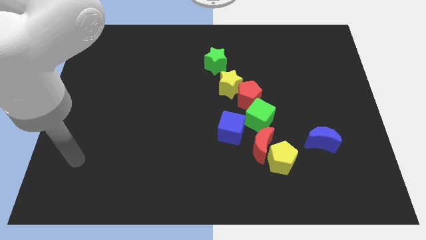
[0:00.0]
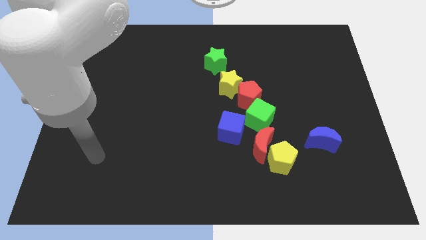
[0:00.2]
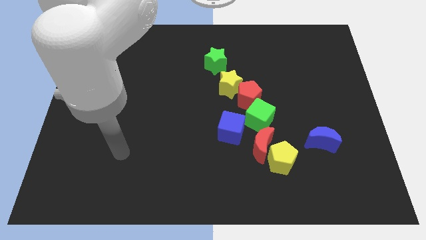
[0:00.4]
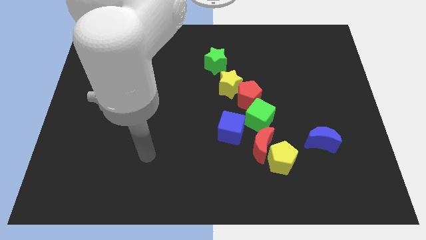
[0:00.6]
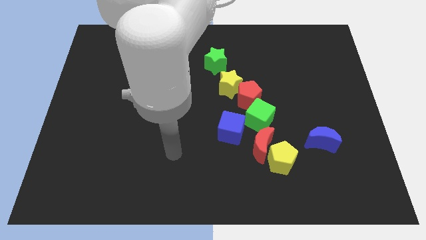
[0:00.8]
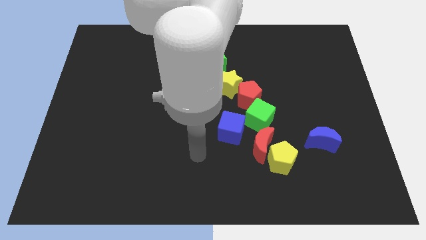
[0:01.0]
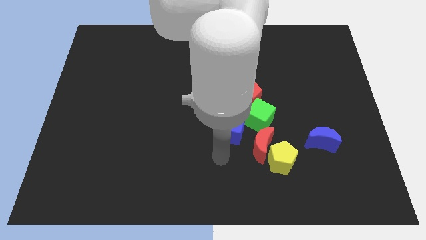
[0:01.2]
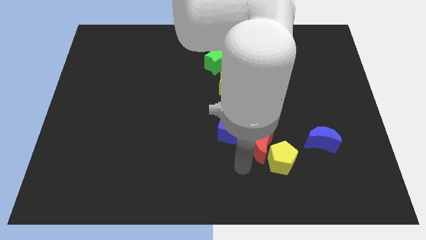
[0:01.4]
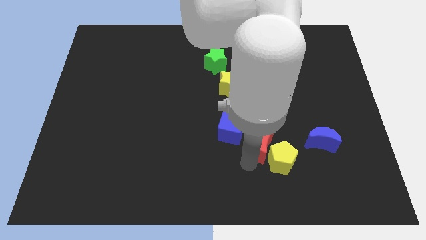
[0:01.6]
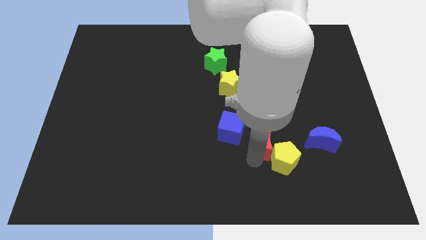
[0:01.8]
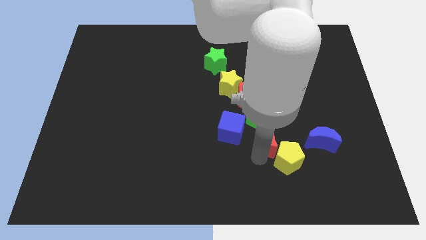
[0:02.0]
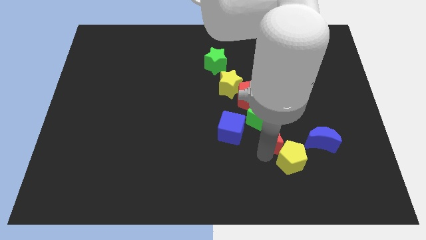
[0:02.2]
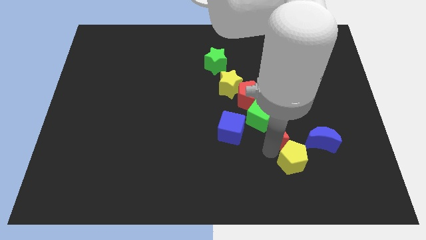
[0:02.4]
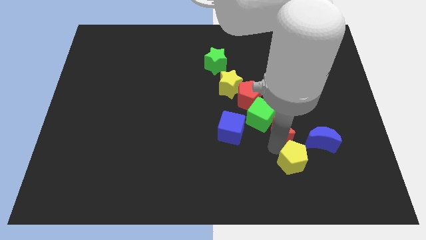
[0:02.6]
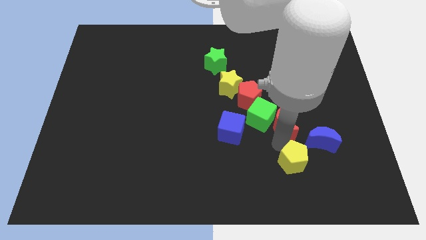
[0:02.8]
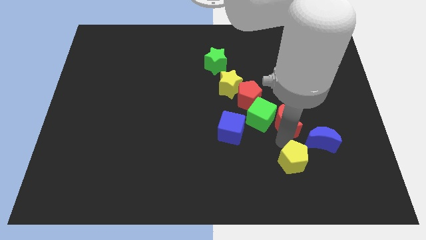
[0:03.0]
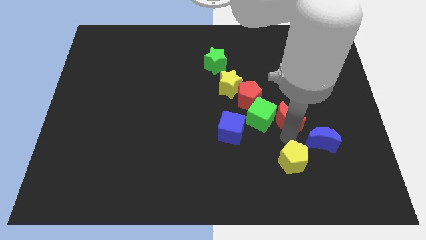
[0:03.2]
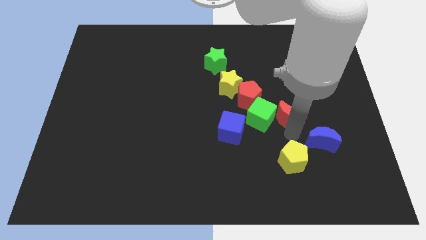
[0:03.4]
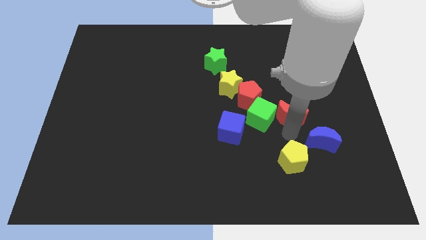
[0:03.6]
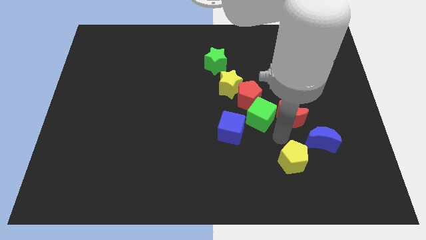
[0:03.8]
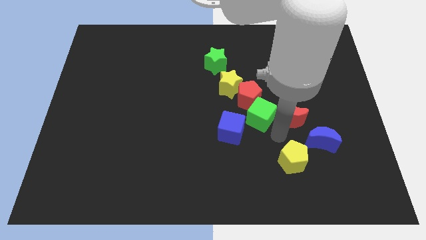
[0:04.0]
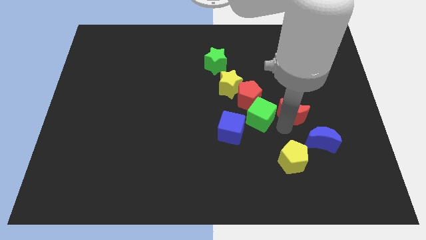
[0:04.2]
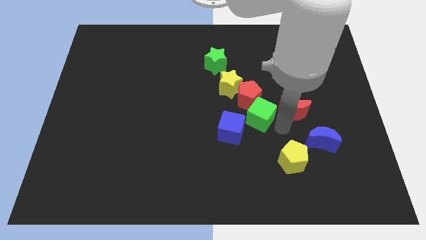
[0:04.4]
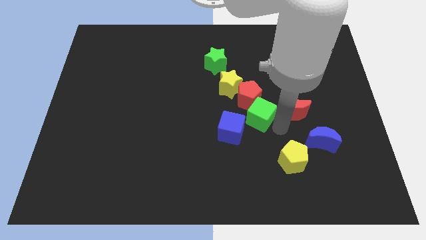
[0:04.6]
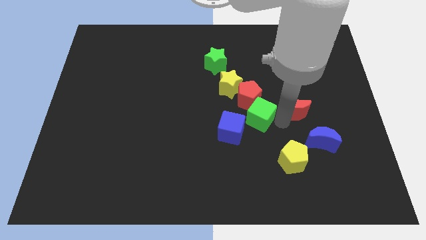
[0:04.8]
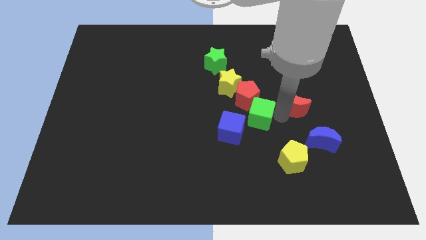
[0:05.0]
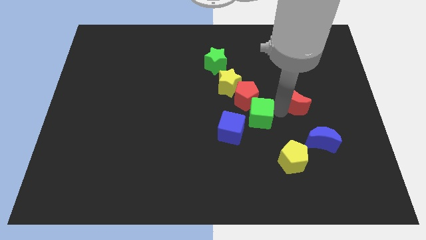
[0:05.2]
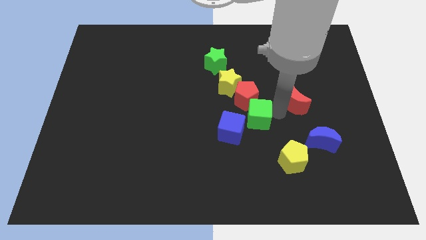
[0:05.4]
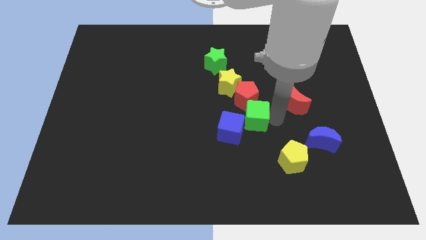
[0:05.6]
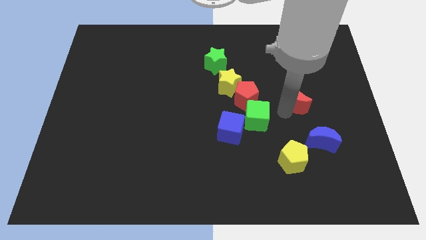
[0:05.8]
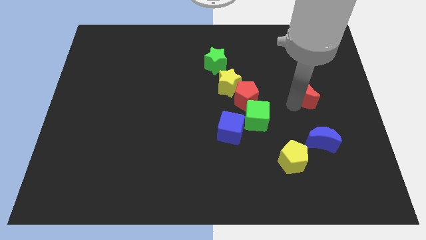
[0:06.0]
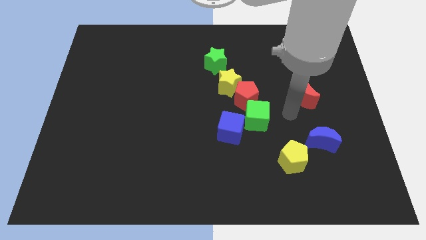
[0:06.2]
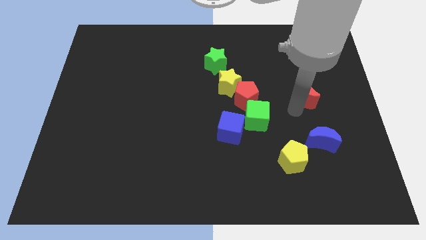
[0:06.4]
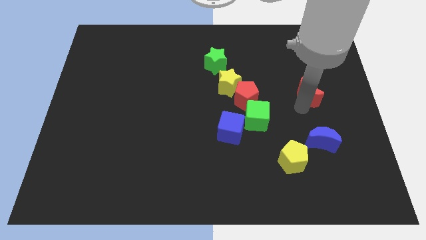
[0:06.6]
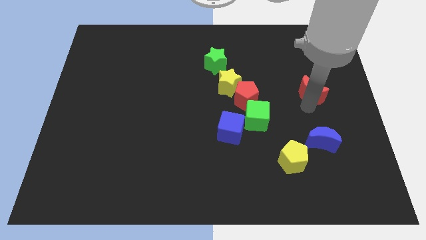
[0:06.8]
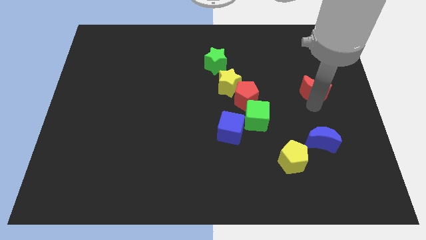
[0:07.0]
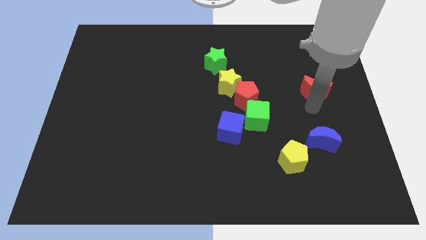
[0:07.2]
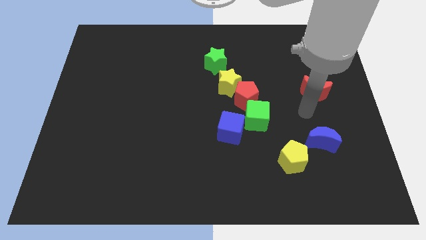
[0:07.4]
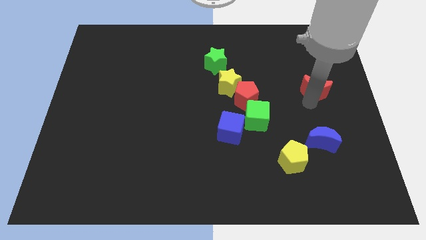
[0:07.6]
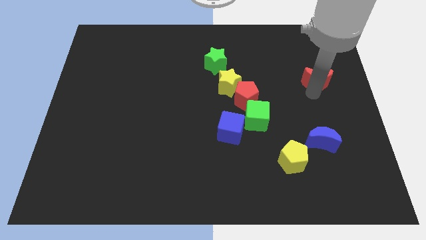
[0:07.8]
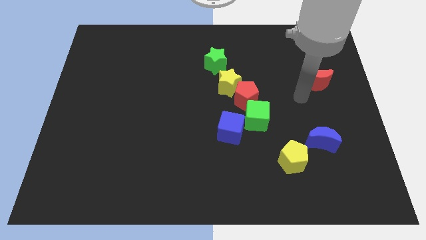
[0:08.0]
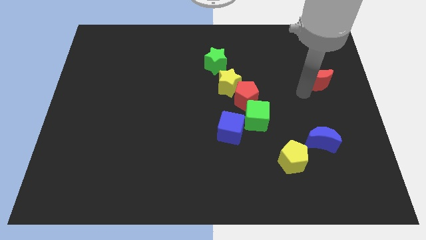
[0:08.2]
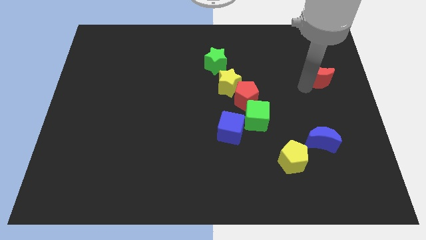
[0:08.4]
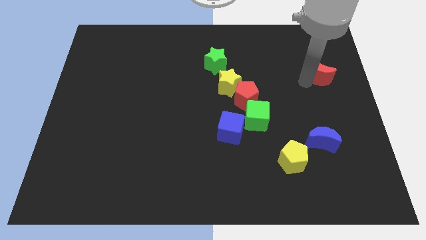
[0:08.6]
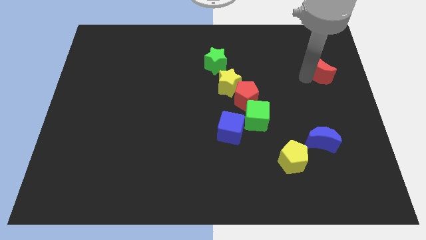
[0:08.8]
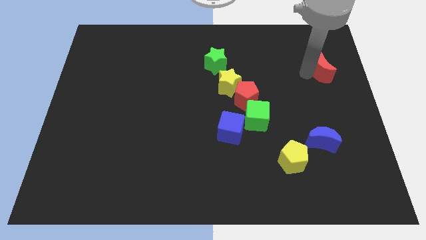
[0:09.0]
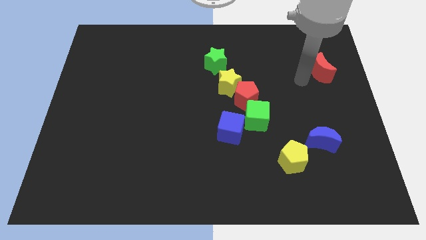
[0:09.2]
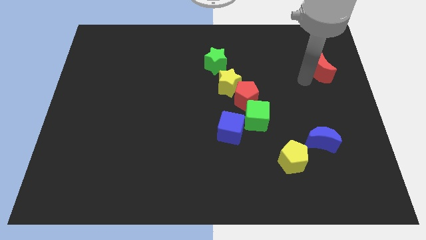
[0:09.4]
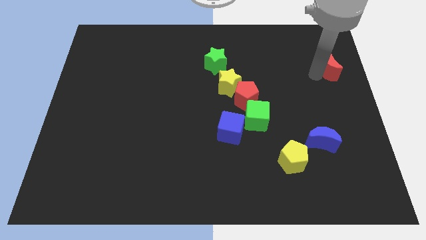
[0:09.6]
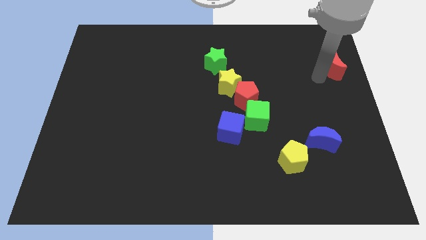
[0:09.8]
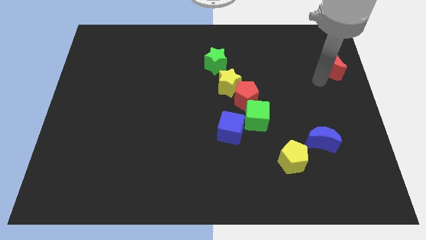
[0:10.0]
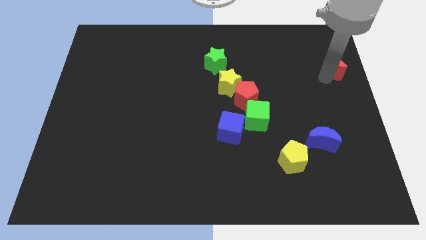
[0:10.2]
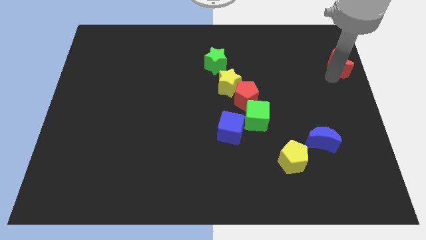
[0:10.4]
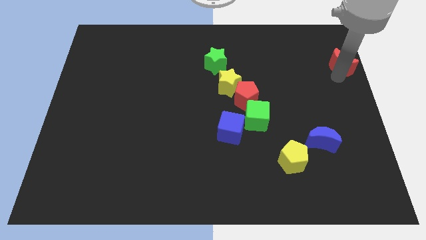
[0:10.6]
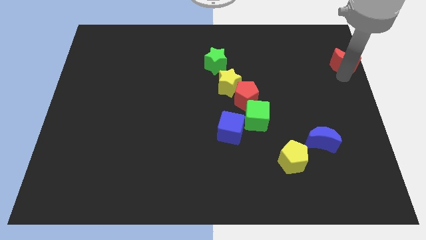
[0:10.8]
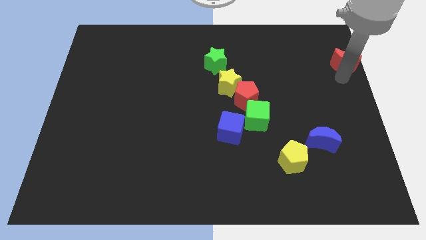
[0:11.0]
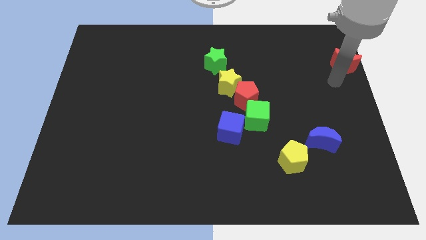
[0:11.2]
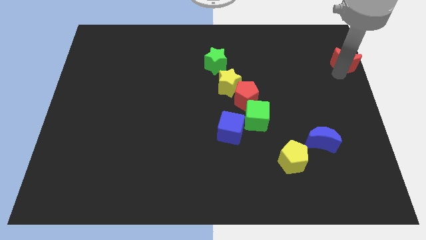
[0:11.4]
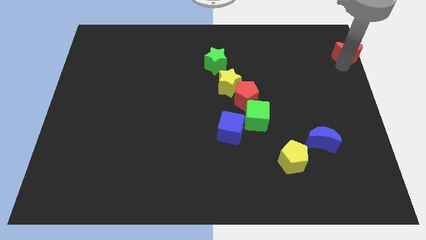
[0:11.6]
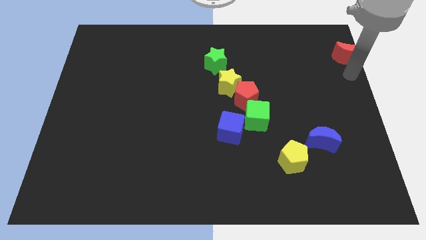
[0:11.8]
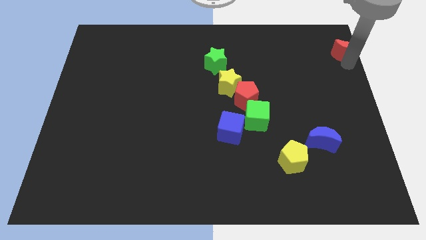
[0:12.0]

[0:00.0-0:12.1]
move the red moon to the top right of the board
